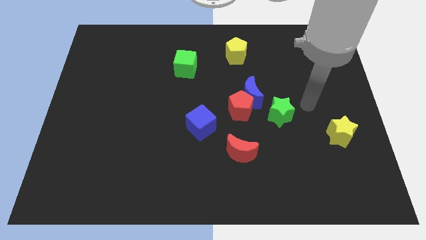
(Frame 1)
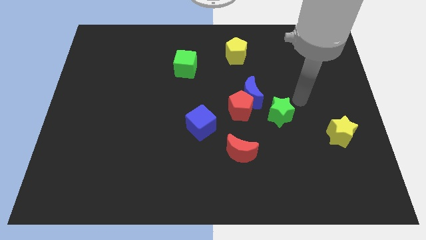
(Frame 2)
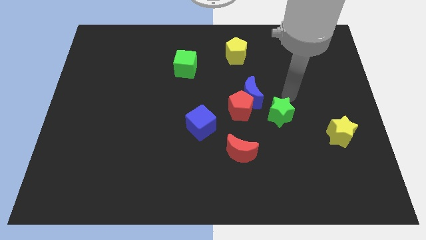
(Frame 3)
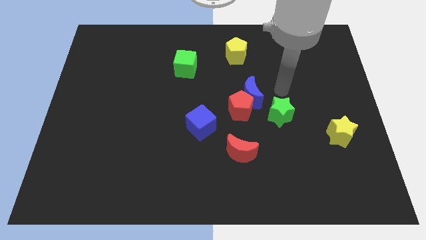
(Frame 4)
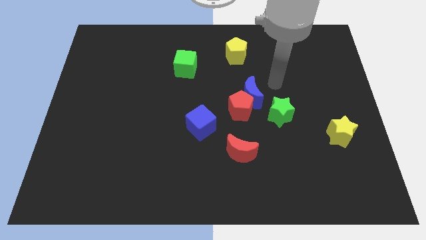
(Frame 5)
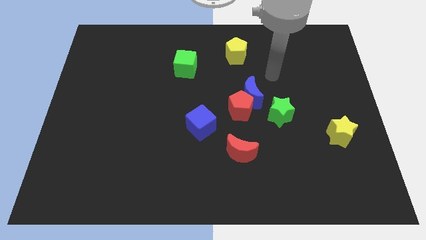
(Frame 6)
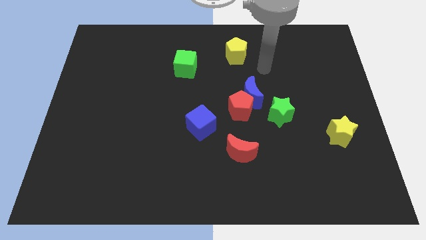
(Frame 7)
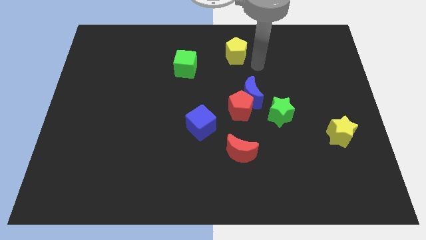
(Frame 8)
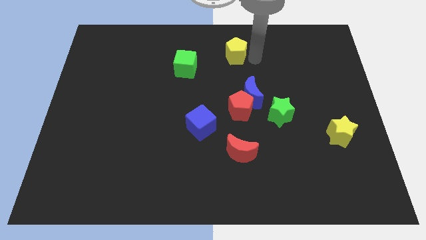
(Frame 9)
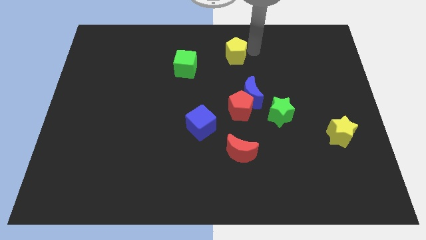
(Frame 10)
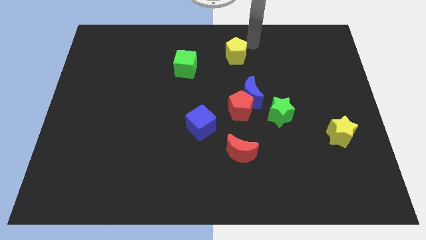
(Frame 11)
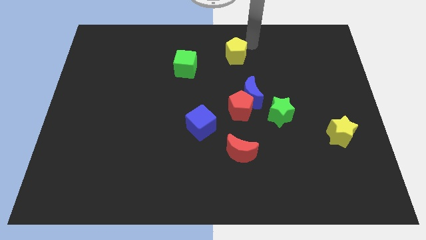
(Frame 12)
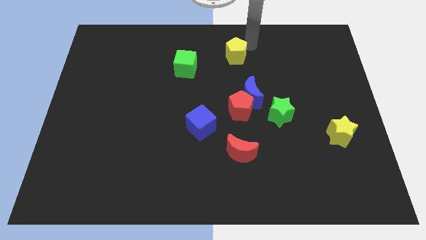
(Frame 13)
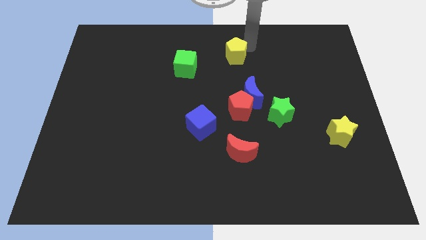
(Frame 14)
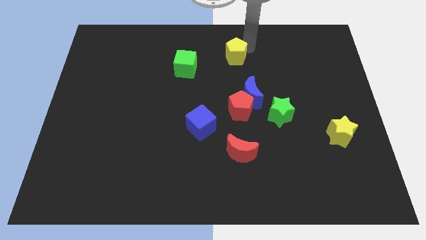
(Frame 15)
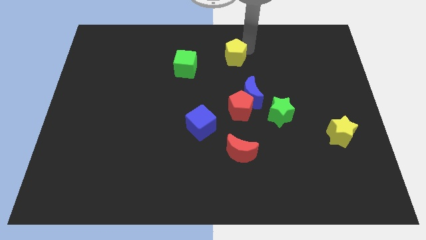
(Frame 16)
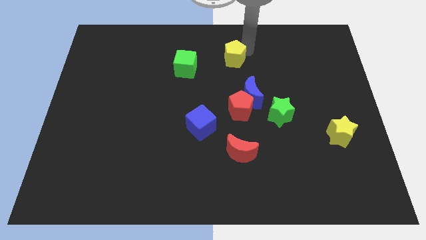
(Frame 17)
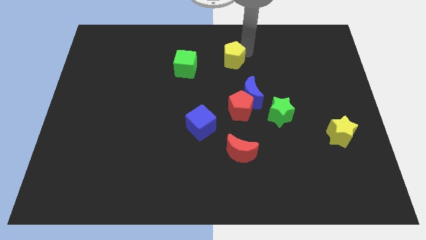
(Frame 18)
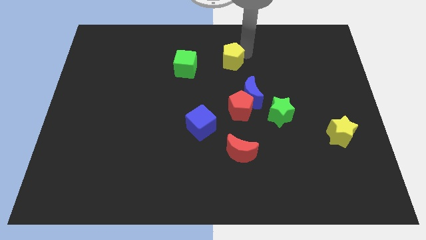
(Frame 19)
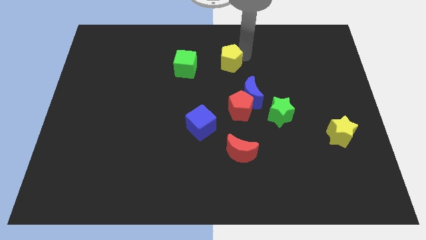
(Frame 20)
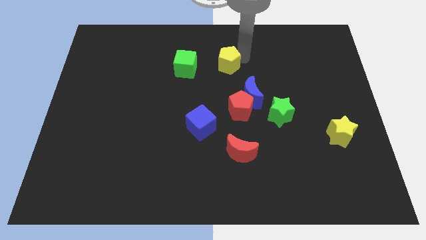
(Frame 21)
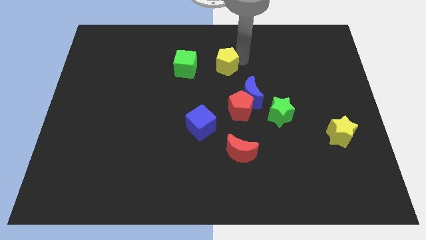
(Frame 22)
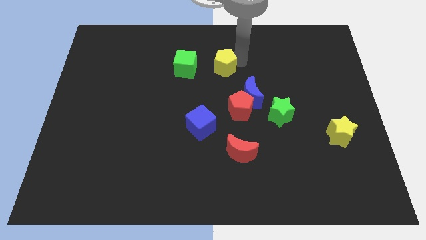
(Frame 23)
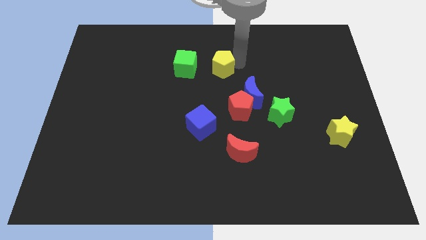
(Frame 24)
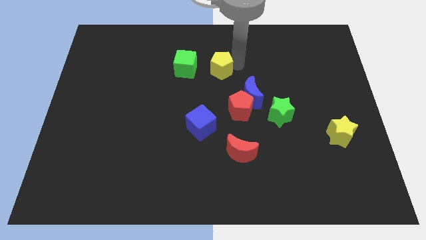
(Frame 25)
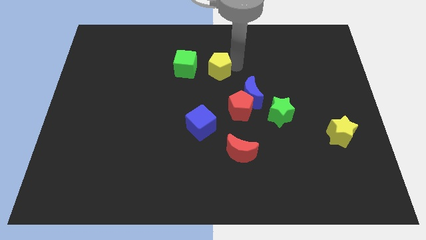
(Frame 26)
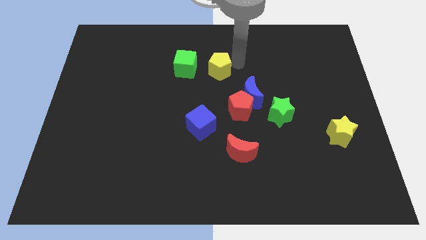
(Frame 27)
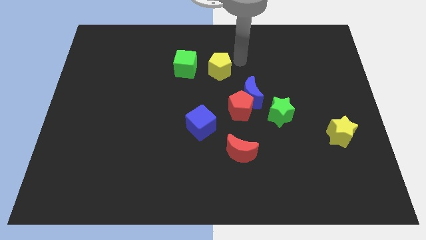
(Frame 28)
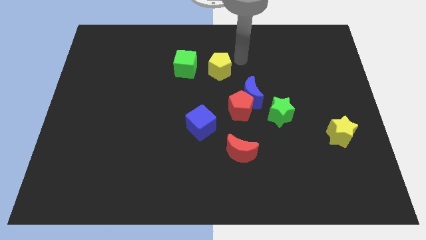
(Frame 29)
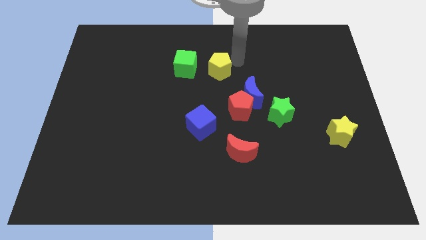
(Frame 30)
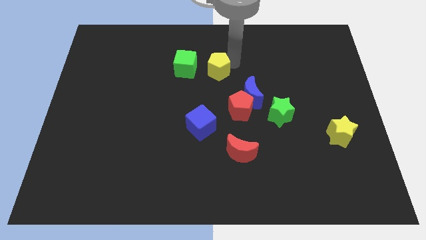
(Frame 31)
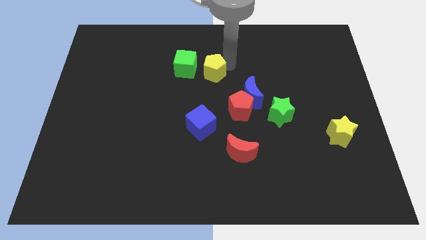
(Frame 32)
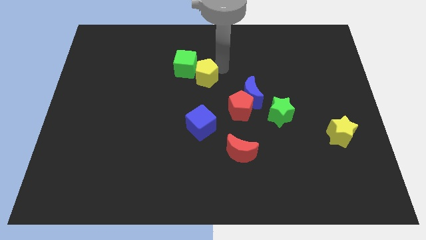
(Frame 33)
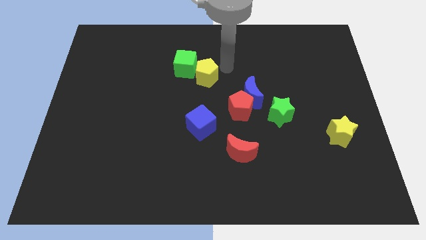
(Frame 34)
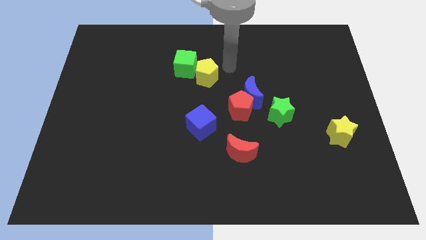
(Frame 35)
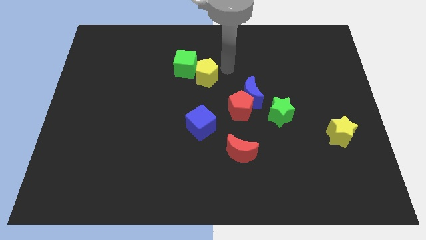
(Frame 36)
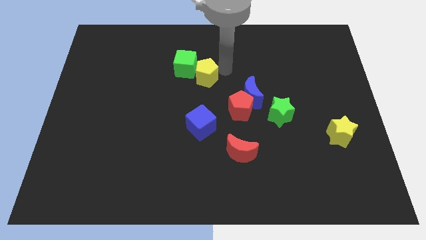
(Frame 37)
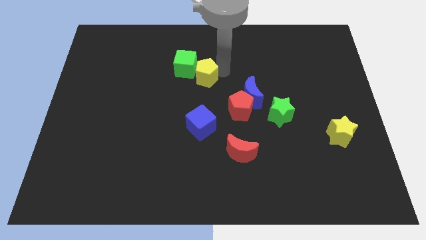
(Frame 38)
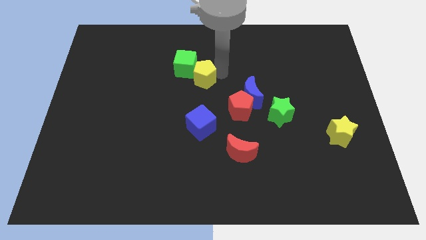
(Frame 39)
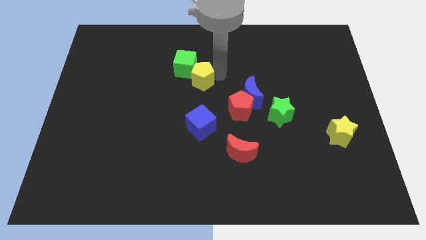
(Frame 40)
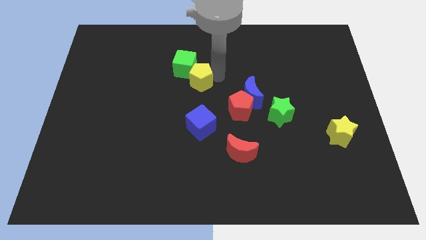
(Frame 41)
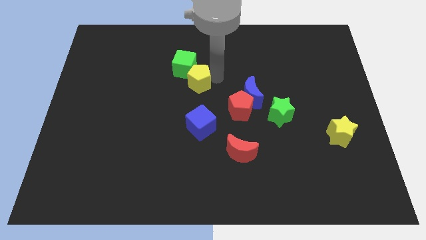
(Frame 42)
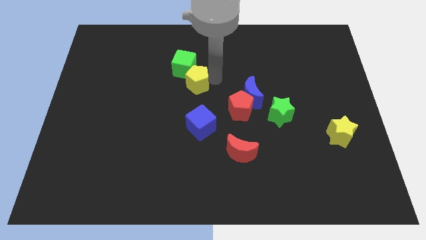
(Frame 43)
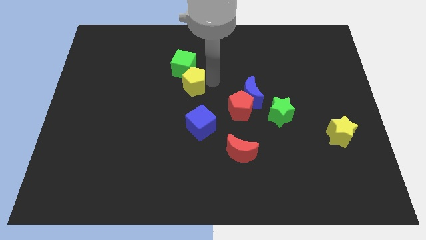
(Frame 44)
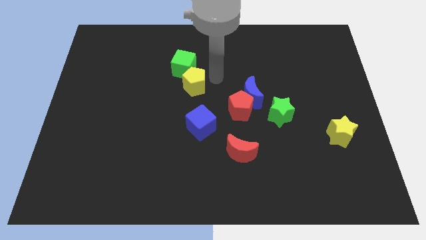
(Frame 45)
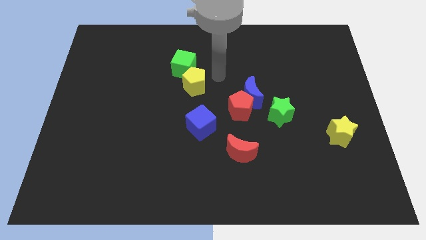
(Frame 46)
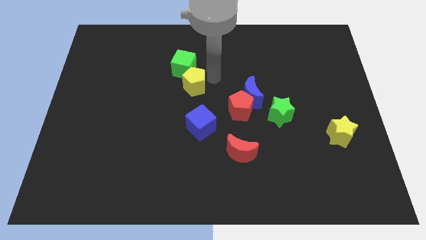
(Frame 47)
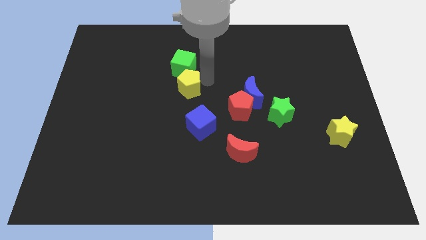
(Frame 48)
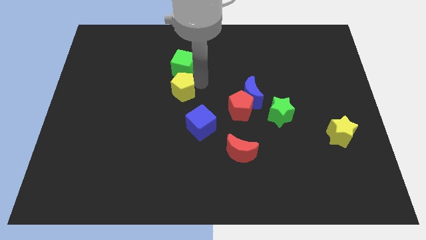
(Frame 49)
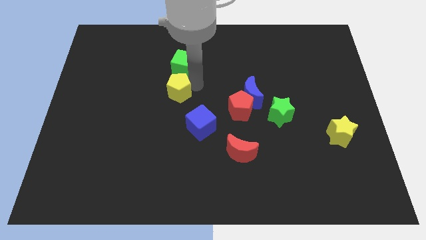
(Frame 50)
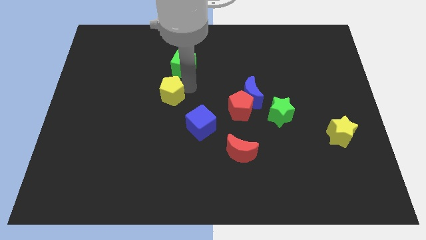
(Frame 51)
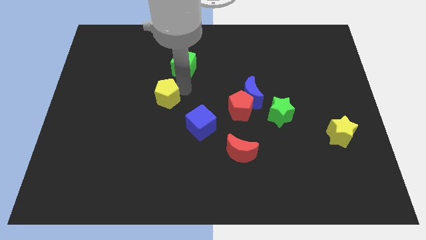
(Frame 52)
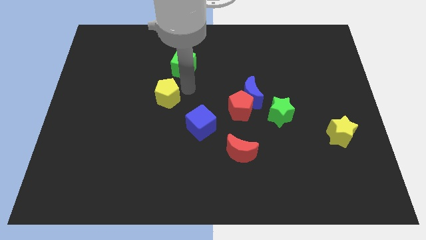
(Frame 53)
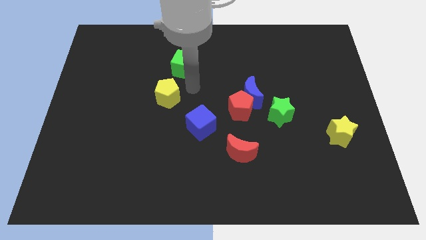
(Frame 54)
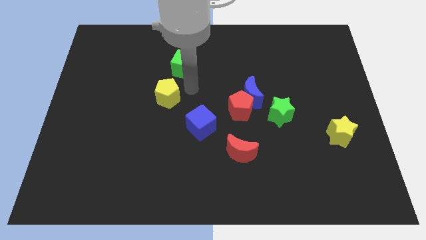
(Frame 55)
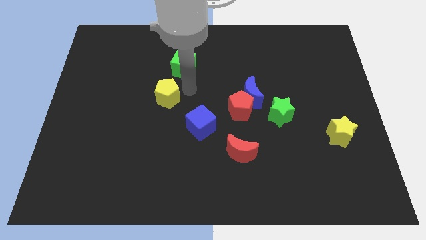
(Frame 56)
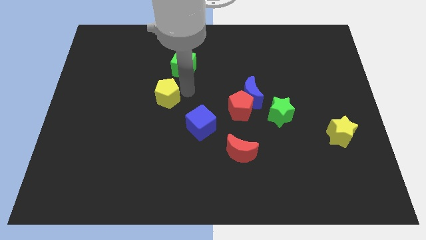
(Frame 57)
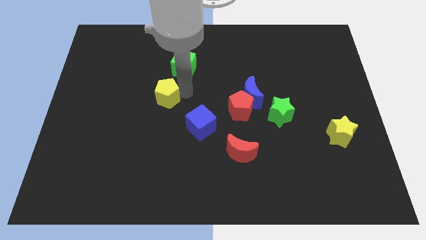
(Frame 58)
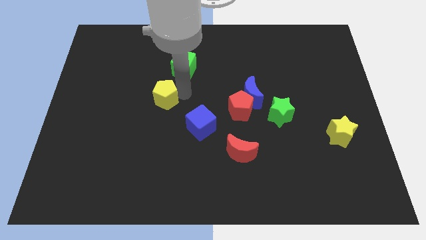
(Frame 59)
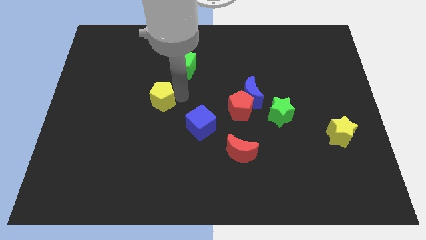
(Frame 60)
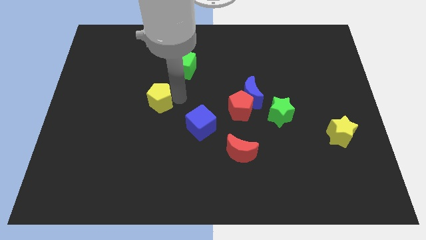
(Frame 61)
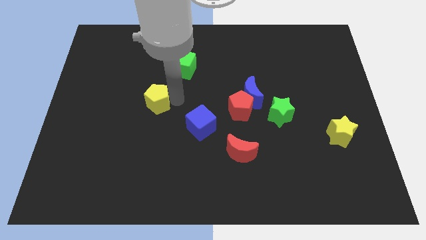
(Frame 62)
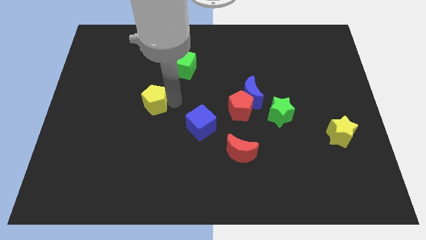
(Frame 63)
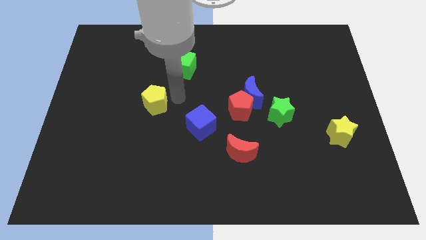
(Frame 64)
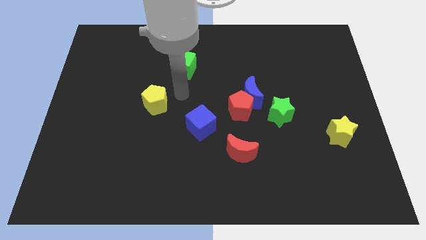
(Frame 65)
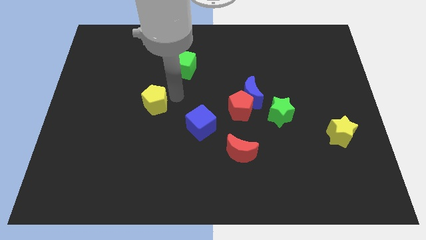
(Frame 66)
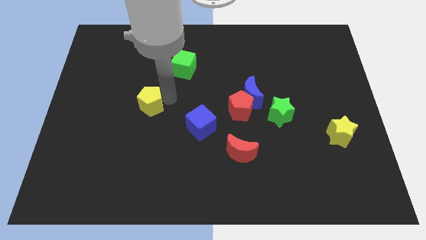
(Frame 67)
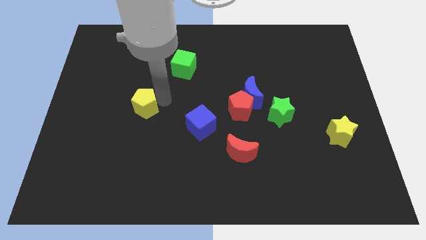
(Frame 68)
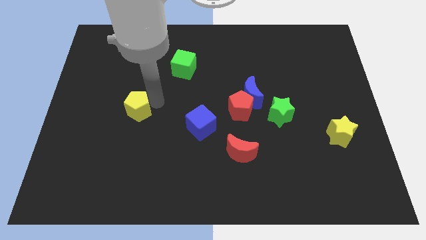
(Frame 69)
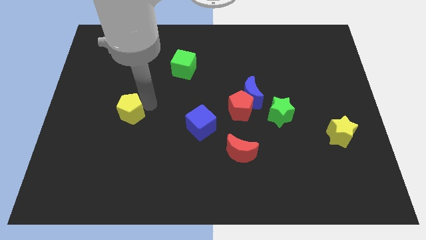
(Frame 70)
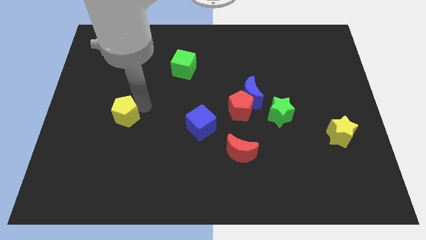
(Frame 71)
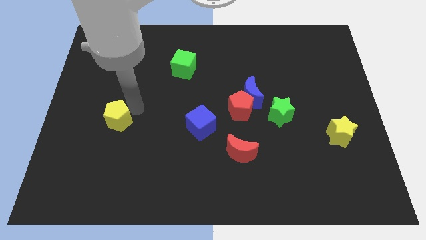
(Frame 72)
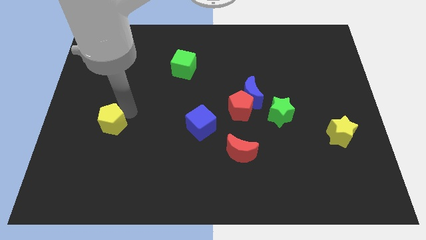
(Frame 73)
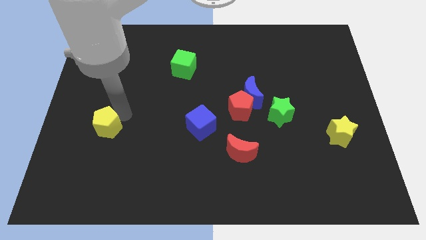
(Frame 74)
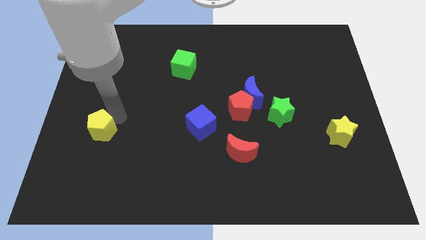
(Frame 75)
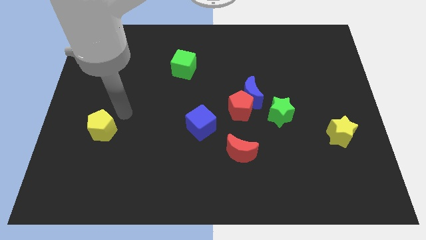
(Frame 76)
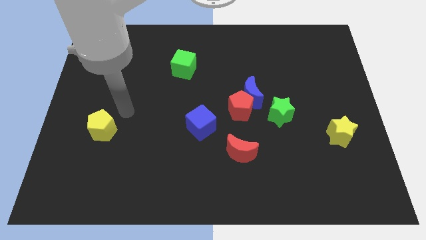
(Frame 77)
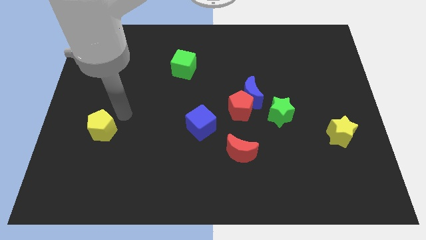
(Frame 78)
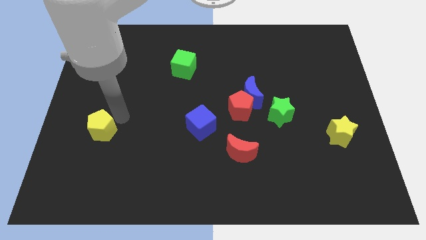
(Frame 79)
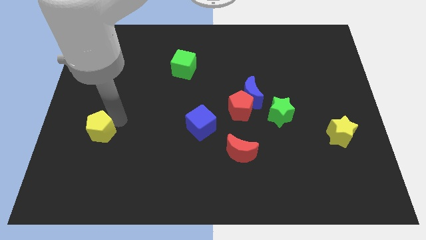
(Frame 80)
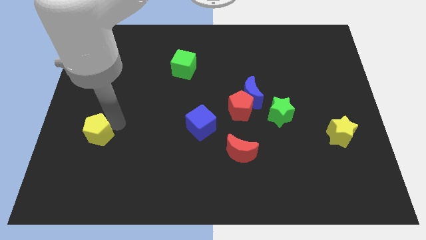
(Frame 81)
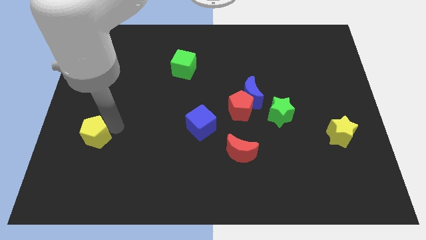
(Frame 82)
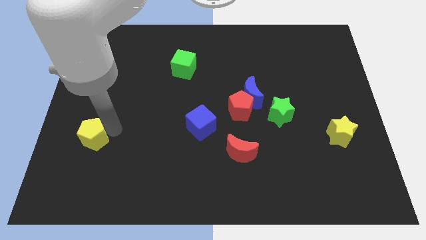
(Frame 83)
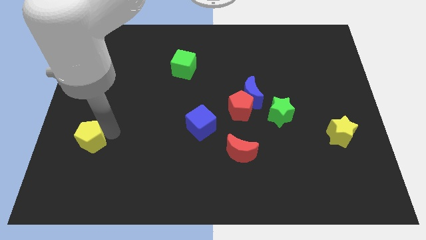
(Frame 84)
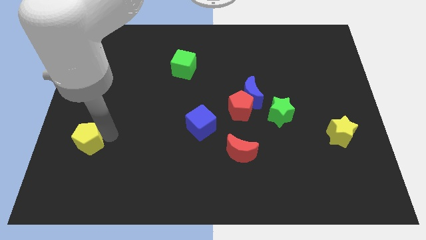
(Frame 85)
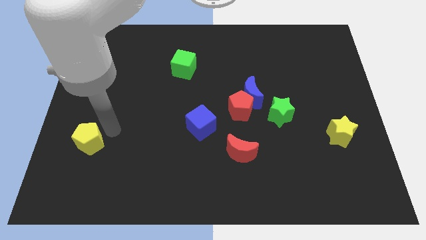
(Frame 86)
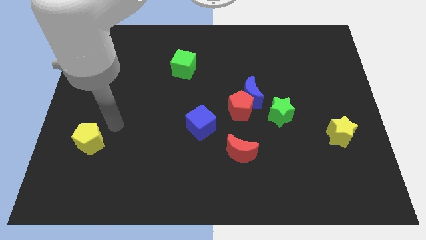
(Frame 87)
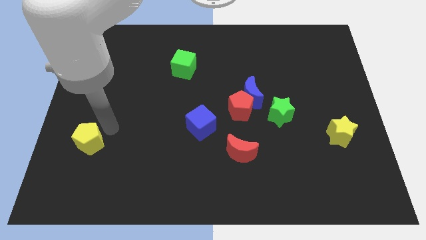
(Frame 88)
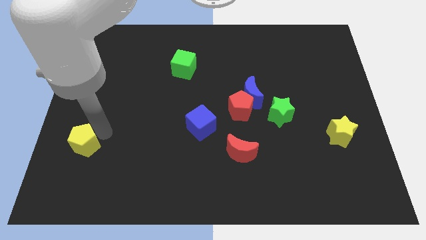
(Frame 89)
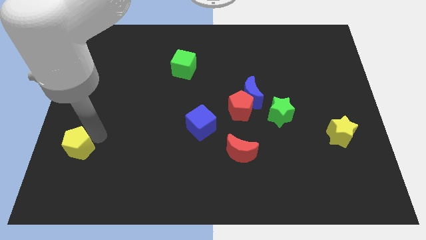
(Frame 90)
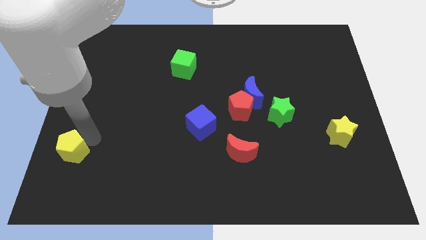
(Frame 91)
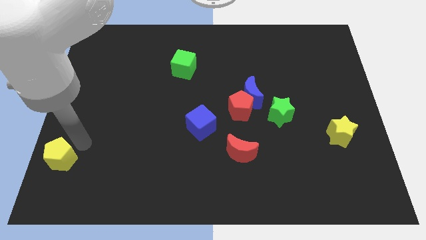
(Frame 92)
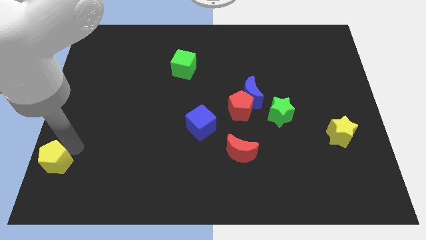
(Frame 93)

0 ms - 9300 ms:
move the yellow pentagon to the bottom left of the board
